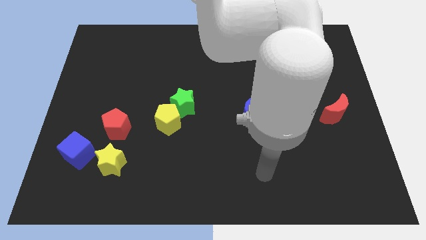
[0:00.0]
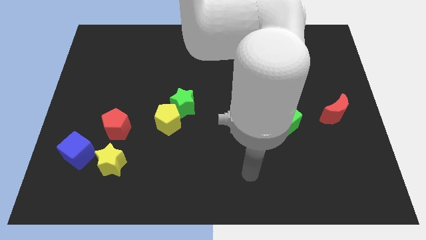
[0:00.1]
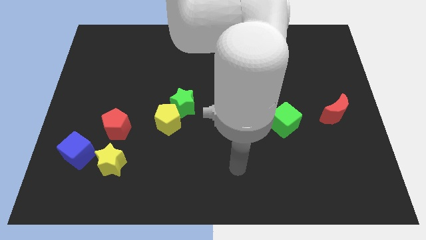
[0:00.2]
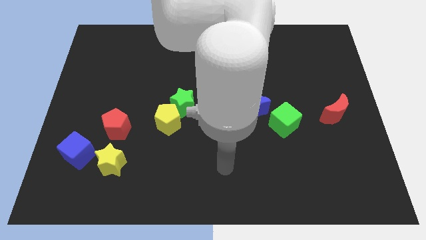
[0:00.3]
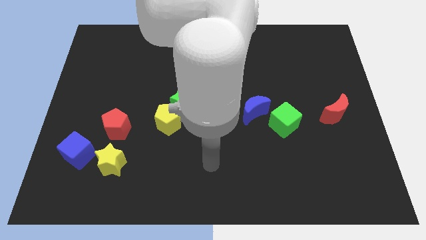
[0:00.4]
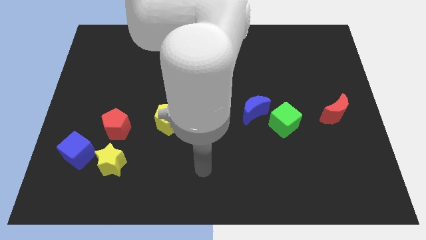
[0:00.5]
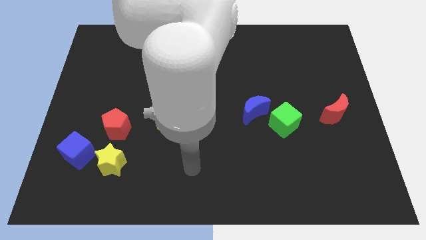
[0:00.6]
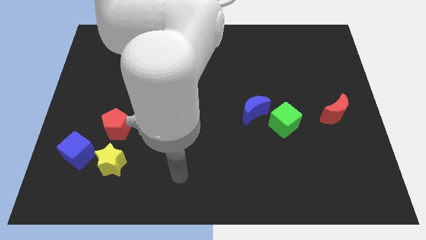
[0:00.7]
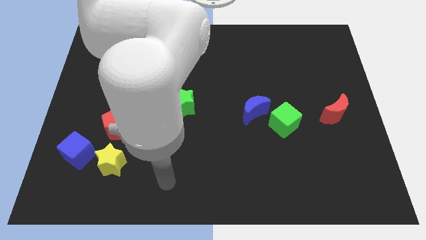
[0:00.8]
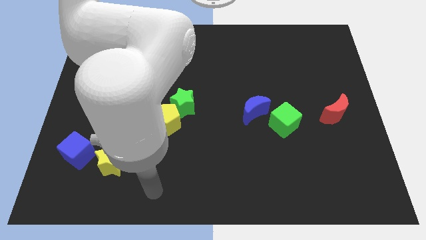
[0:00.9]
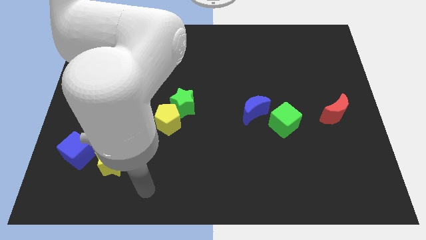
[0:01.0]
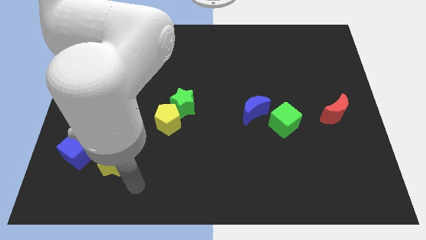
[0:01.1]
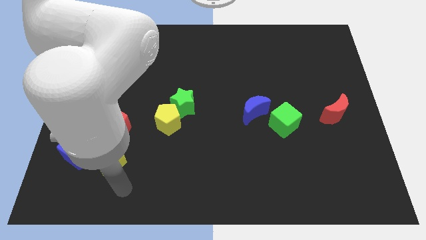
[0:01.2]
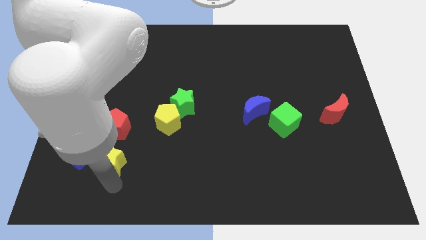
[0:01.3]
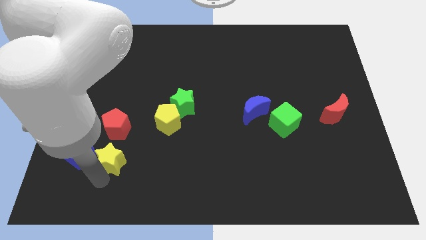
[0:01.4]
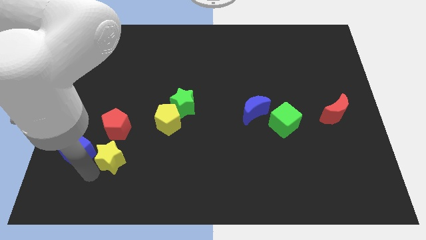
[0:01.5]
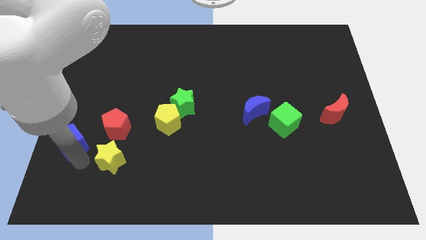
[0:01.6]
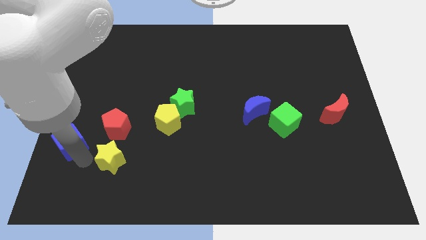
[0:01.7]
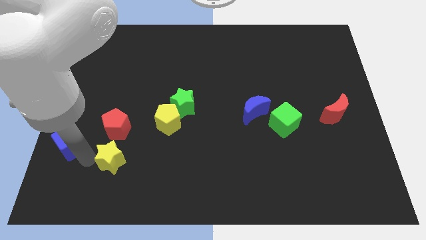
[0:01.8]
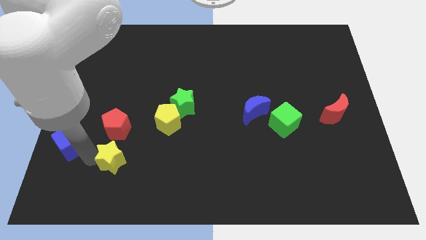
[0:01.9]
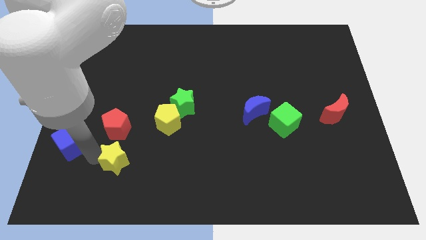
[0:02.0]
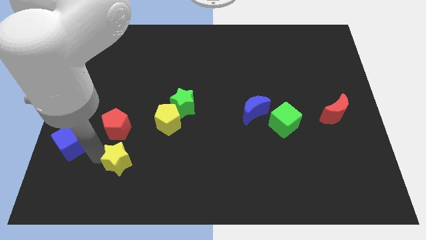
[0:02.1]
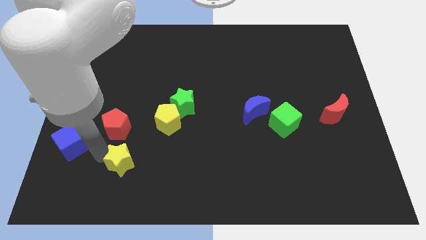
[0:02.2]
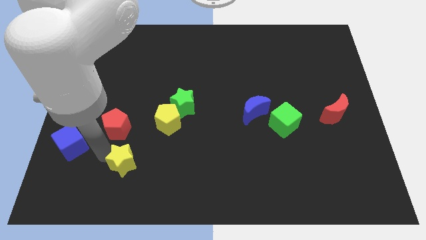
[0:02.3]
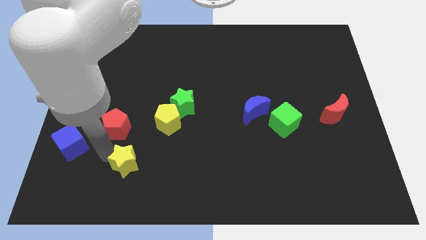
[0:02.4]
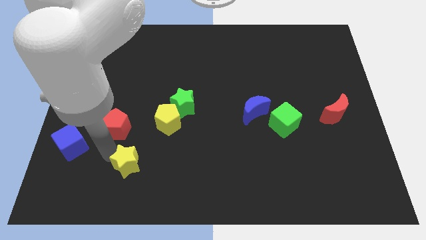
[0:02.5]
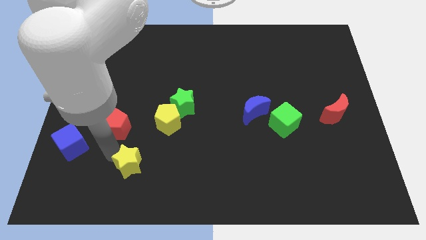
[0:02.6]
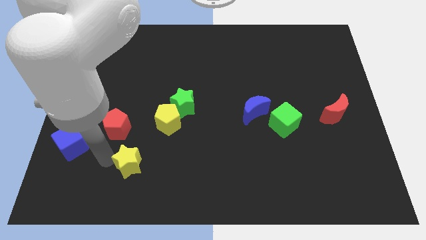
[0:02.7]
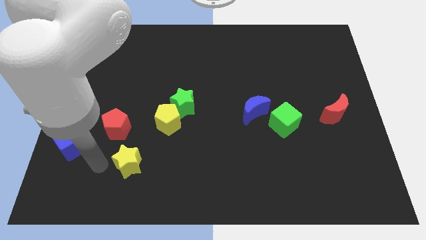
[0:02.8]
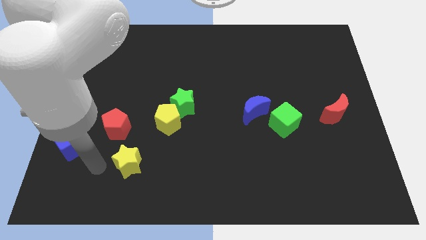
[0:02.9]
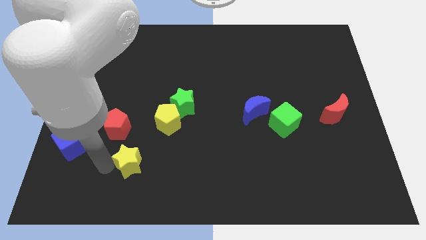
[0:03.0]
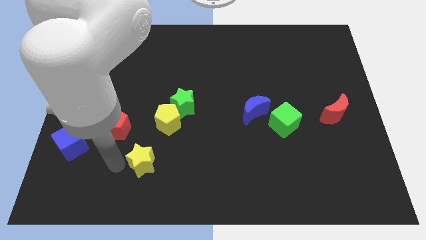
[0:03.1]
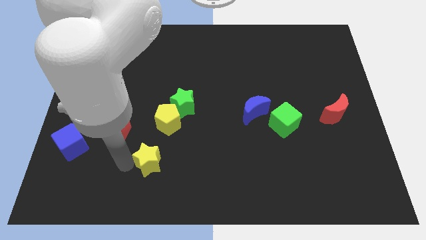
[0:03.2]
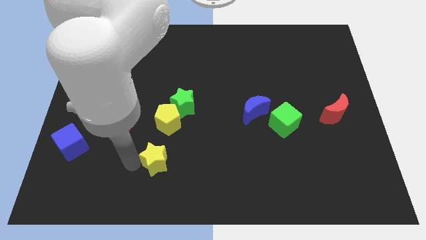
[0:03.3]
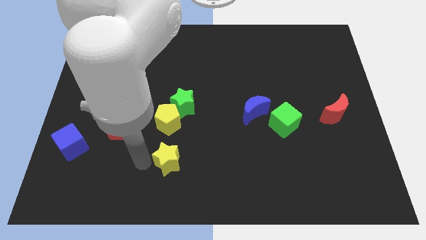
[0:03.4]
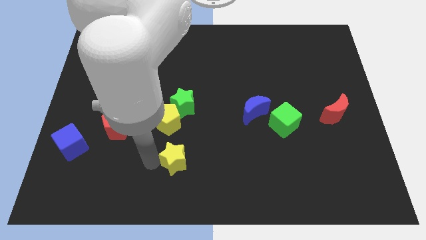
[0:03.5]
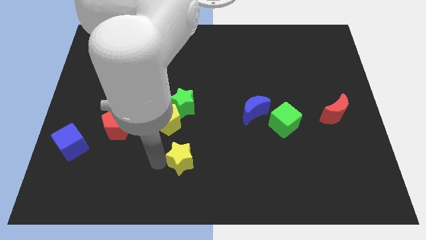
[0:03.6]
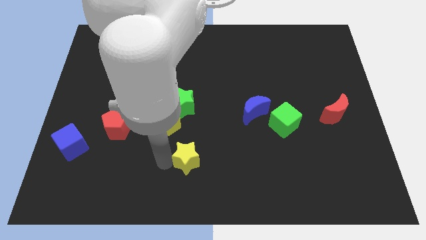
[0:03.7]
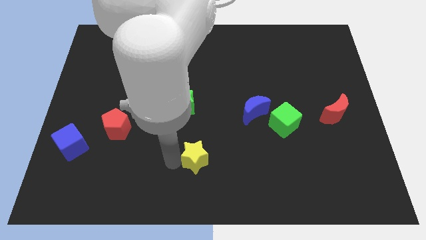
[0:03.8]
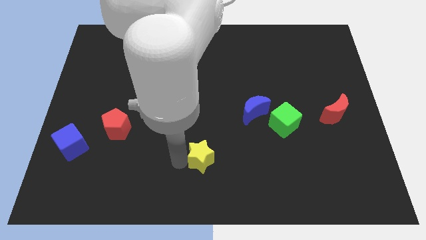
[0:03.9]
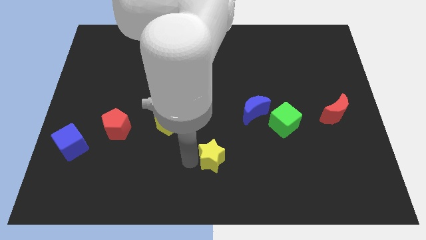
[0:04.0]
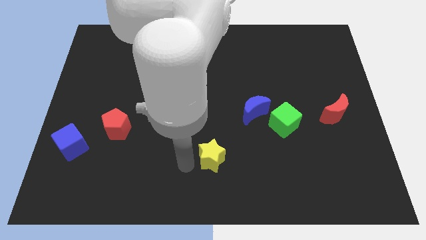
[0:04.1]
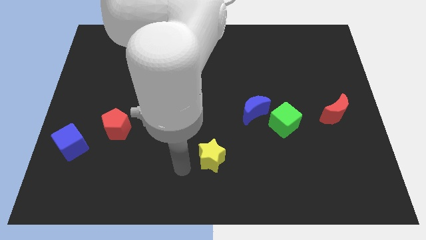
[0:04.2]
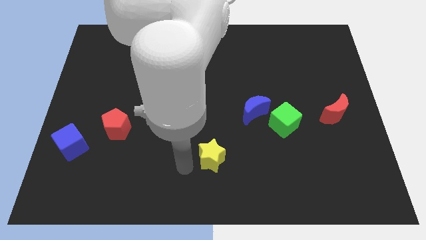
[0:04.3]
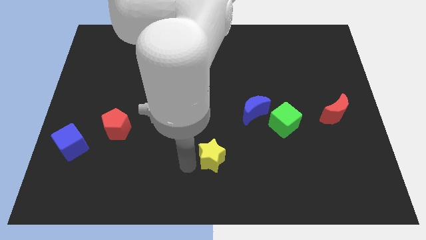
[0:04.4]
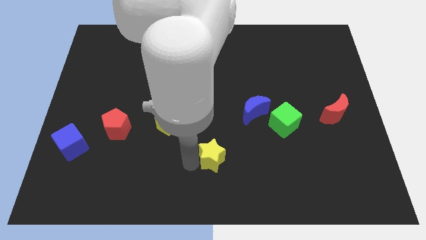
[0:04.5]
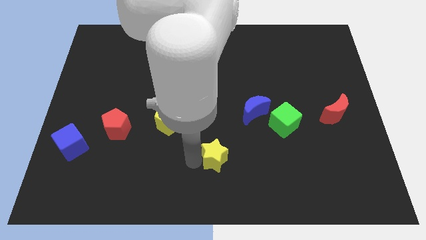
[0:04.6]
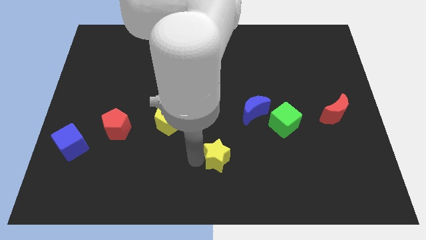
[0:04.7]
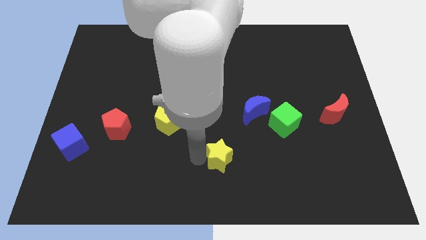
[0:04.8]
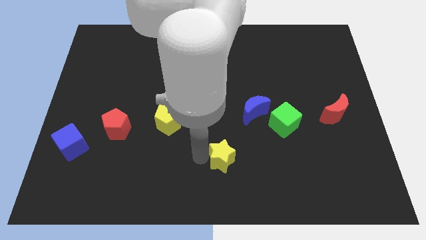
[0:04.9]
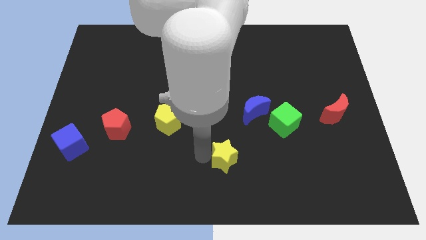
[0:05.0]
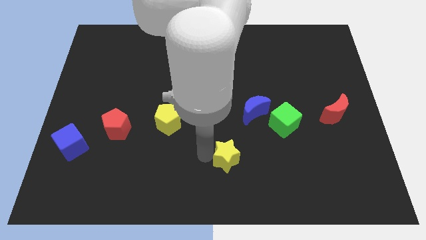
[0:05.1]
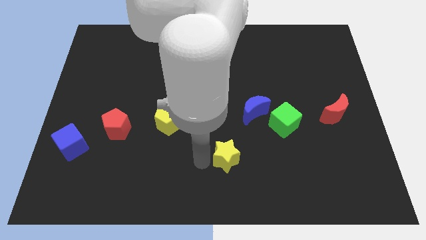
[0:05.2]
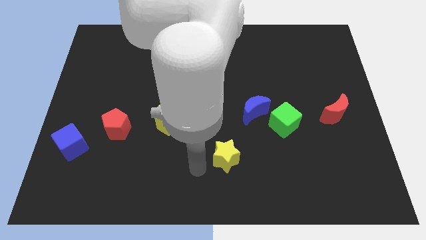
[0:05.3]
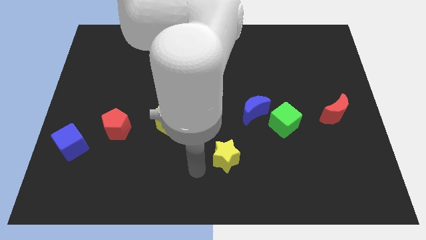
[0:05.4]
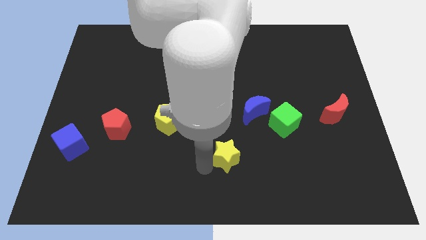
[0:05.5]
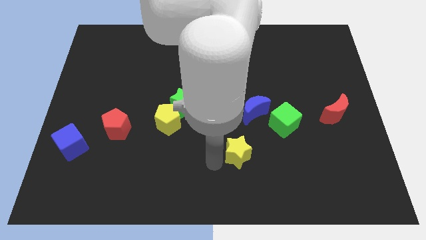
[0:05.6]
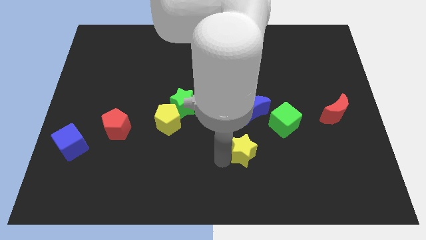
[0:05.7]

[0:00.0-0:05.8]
push the yellow star to the bottom left of the green cube

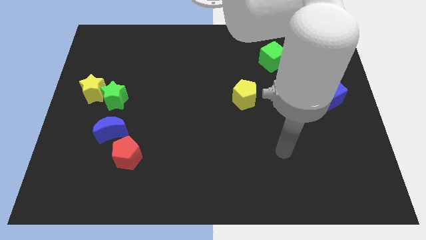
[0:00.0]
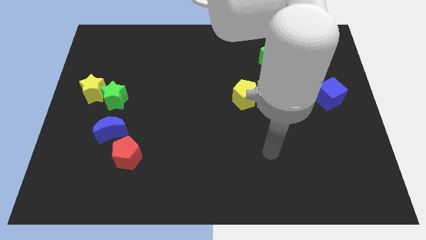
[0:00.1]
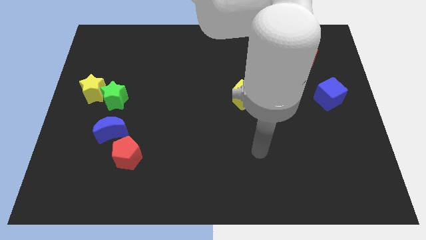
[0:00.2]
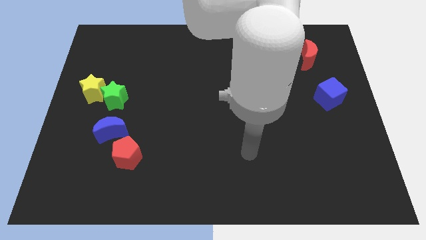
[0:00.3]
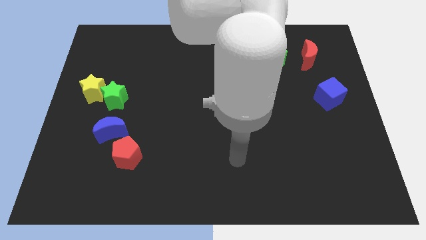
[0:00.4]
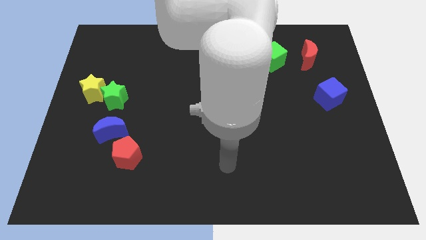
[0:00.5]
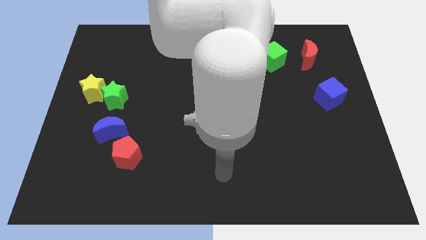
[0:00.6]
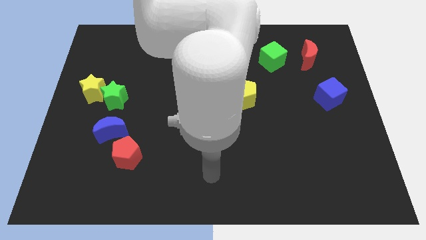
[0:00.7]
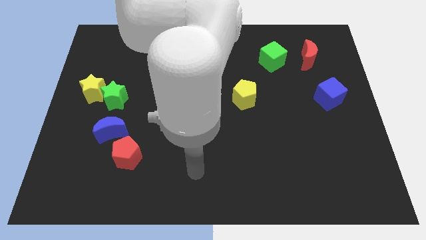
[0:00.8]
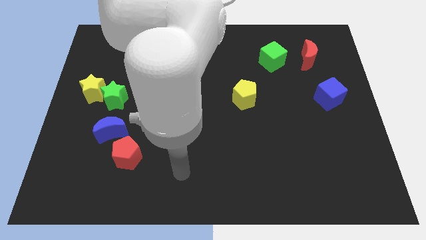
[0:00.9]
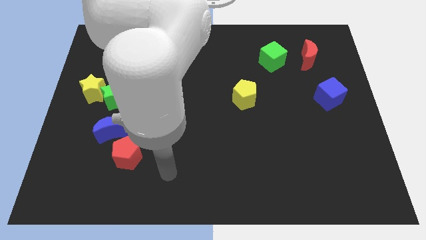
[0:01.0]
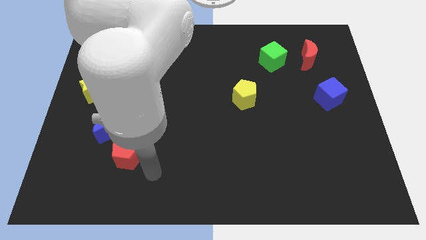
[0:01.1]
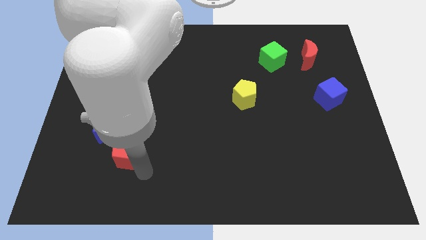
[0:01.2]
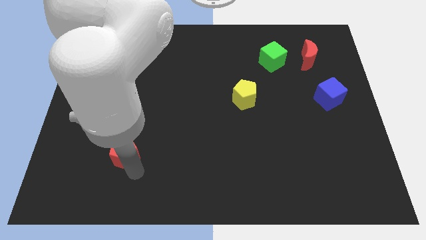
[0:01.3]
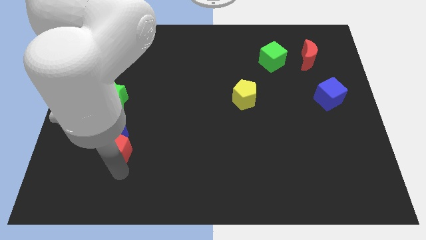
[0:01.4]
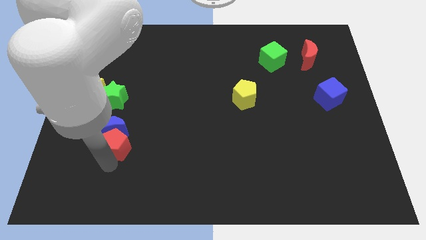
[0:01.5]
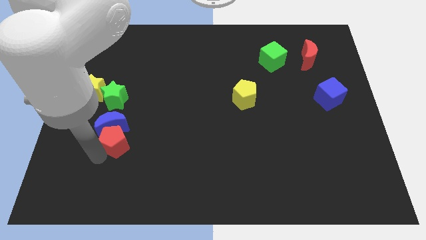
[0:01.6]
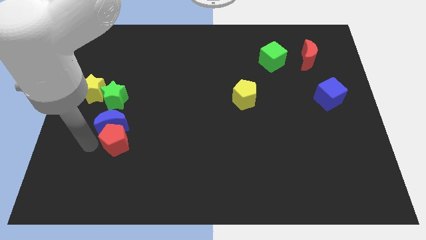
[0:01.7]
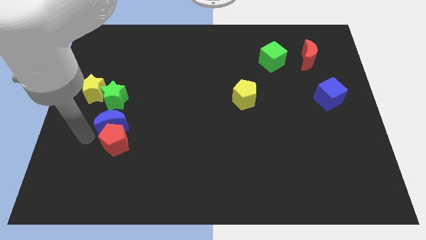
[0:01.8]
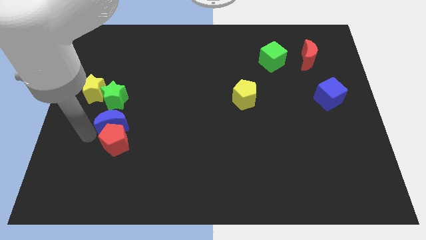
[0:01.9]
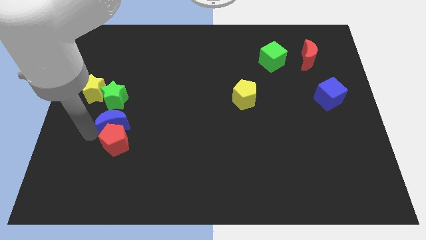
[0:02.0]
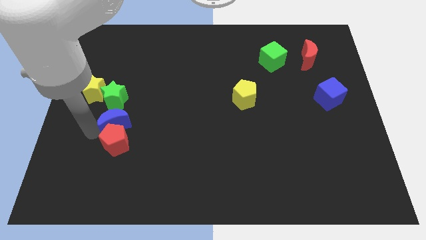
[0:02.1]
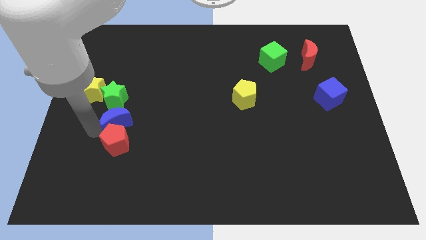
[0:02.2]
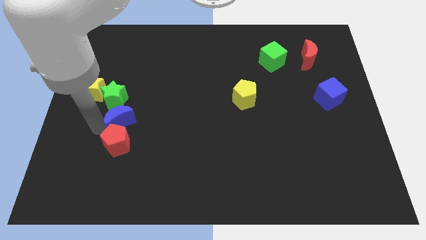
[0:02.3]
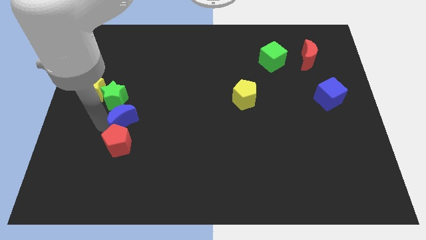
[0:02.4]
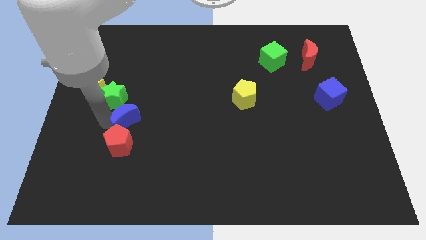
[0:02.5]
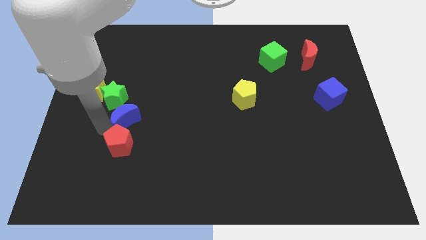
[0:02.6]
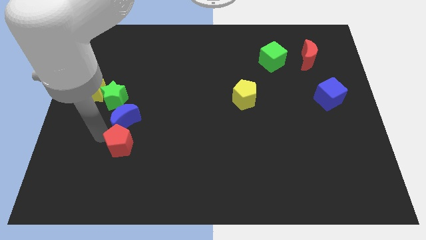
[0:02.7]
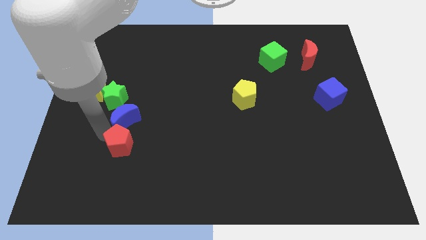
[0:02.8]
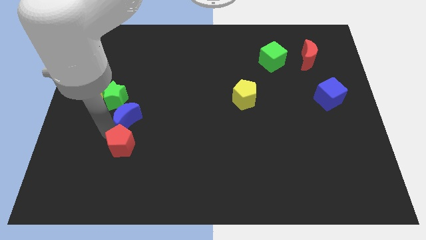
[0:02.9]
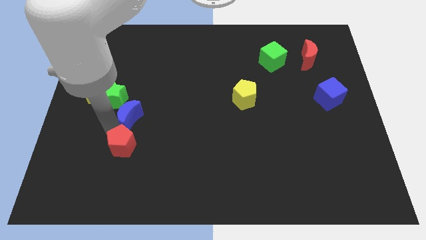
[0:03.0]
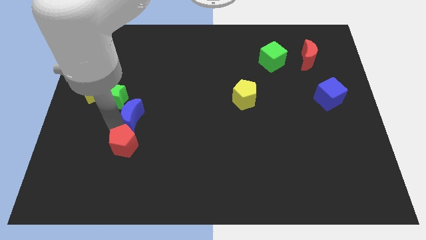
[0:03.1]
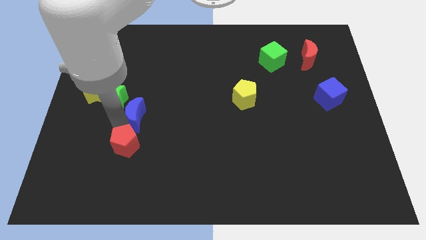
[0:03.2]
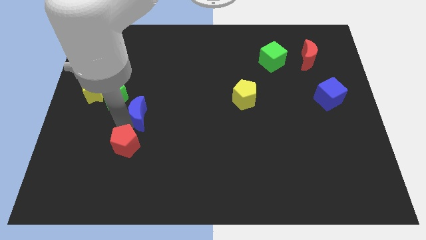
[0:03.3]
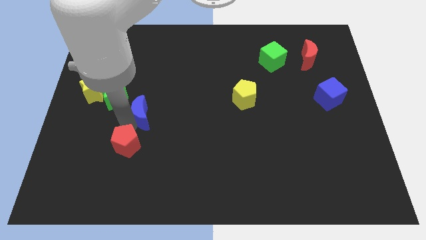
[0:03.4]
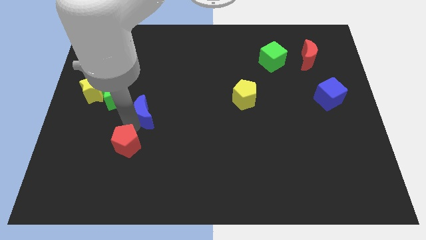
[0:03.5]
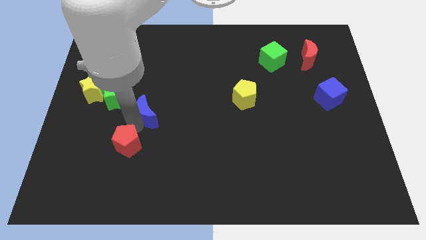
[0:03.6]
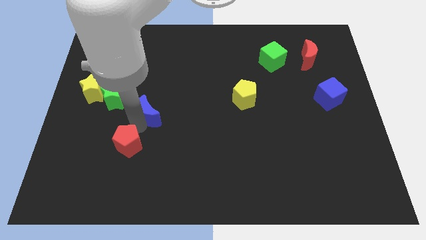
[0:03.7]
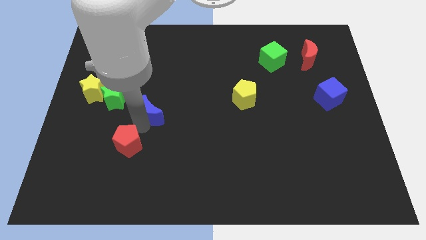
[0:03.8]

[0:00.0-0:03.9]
move the blue moon just right of the green star
